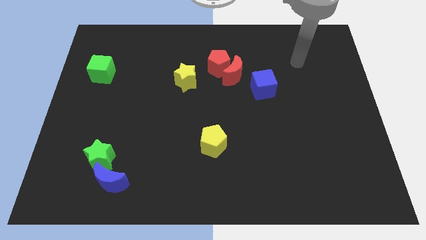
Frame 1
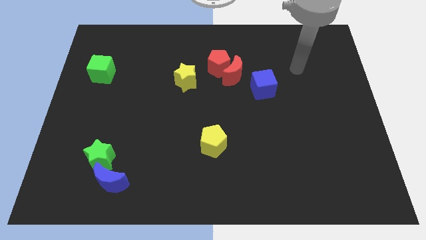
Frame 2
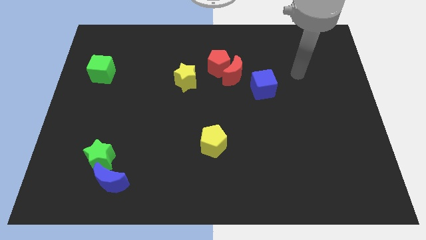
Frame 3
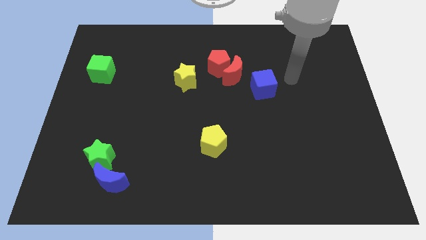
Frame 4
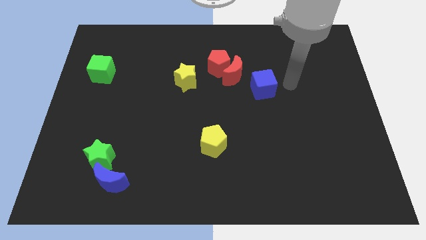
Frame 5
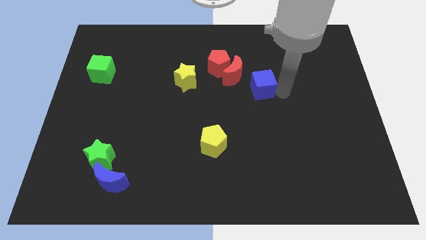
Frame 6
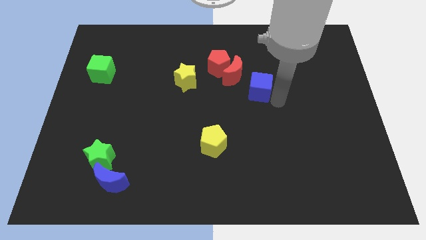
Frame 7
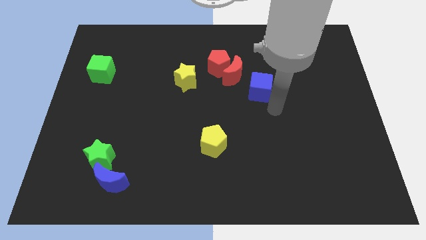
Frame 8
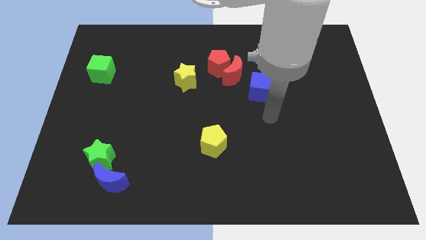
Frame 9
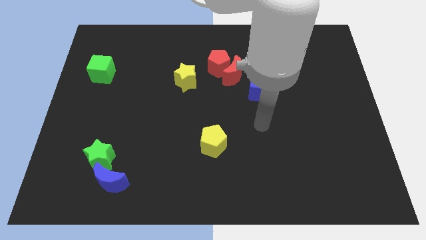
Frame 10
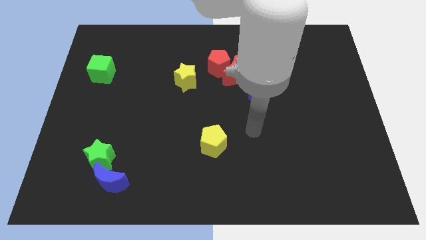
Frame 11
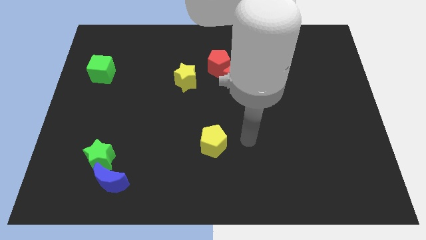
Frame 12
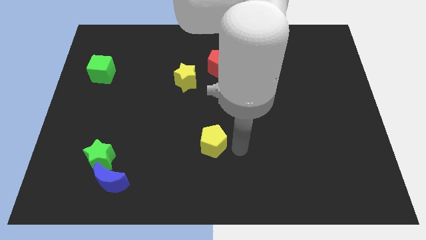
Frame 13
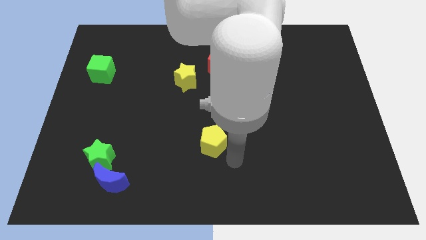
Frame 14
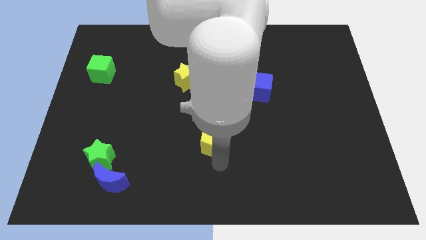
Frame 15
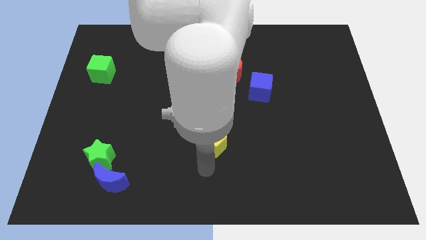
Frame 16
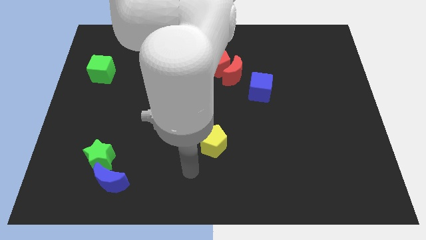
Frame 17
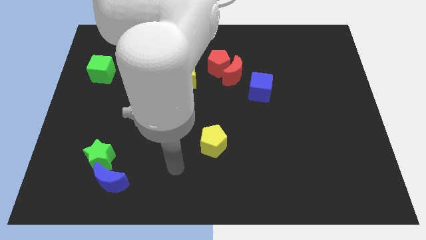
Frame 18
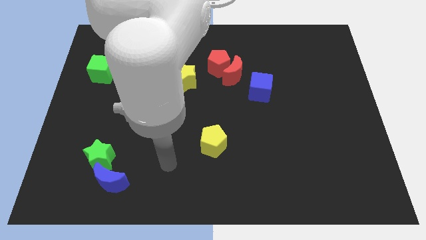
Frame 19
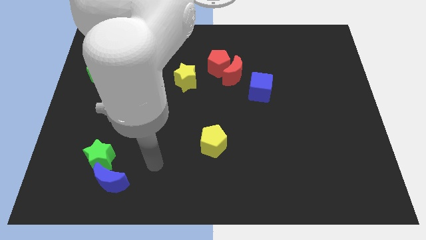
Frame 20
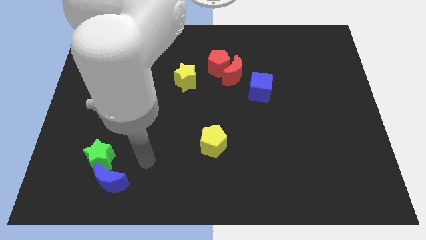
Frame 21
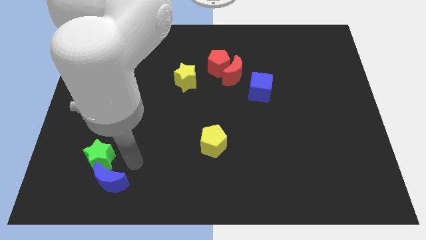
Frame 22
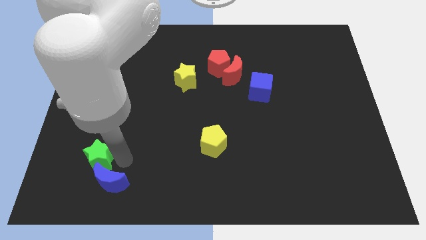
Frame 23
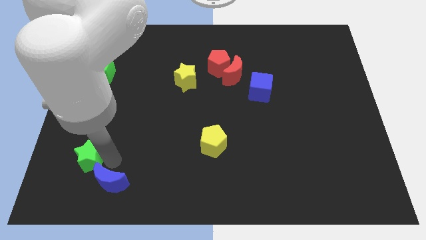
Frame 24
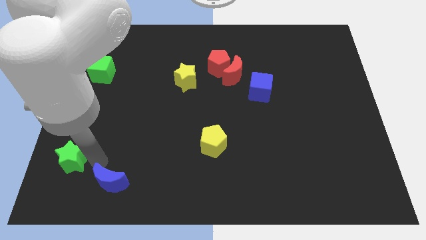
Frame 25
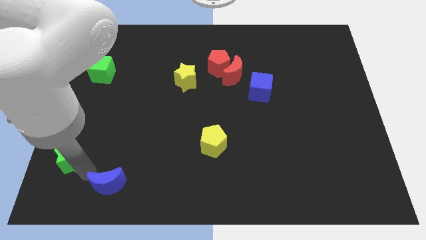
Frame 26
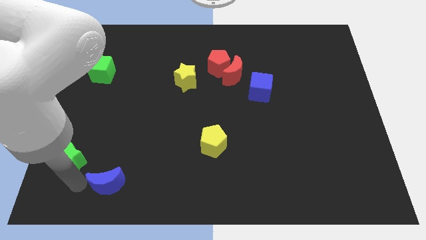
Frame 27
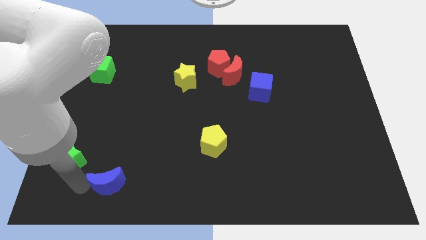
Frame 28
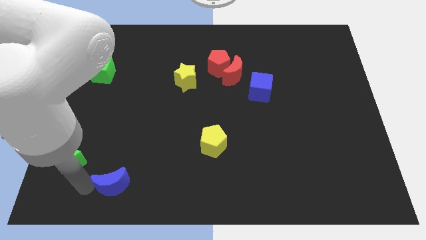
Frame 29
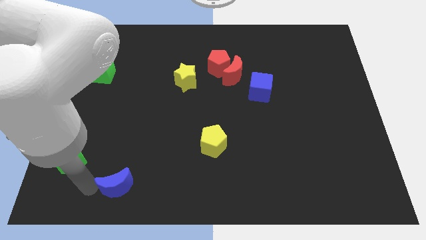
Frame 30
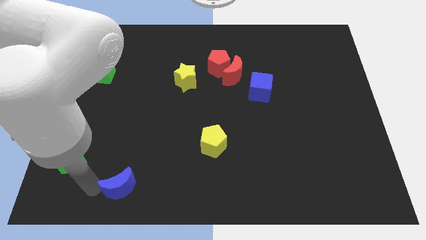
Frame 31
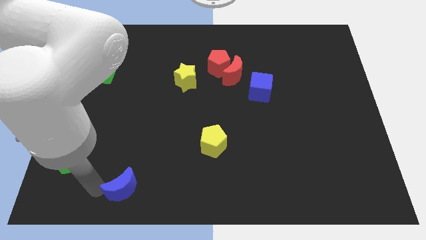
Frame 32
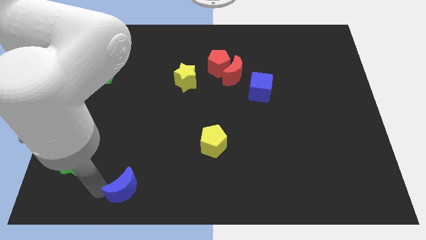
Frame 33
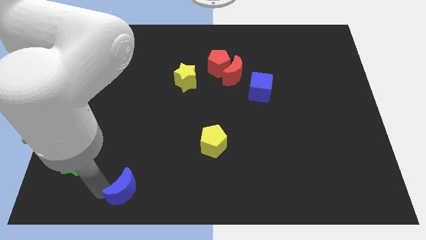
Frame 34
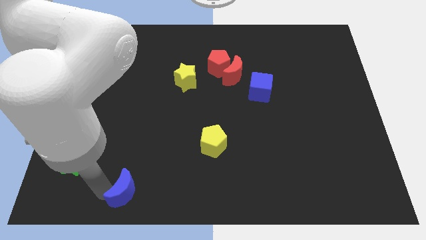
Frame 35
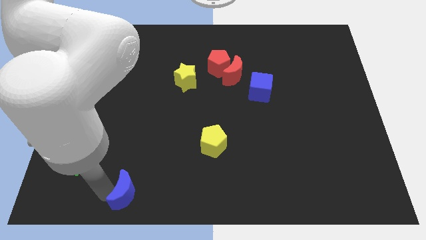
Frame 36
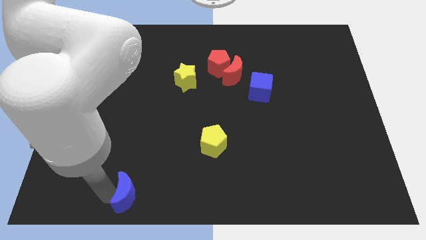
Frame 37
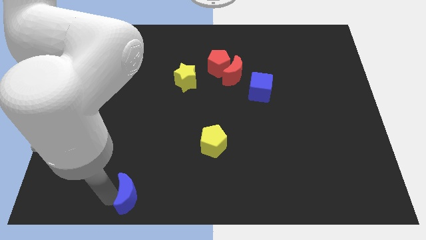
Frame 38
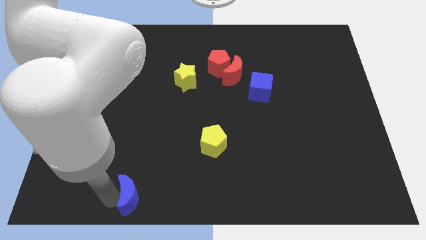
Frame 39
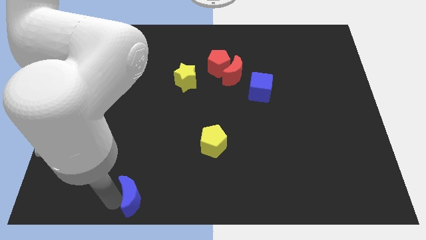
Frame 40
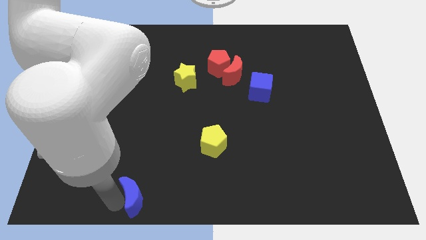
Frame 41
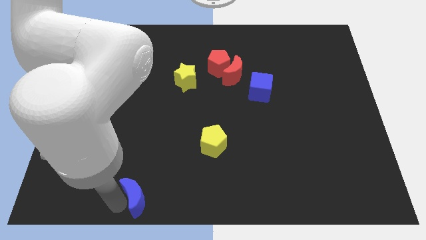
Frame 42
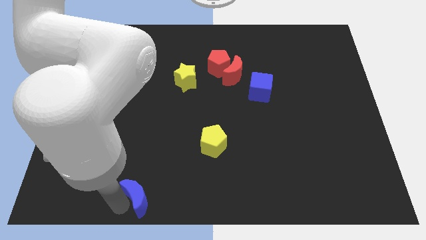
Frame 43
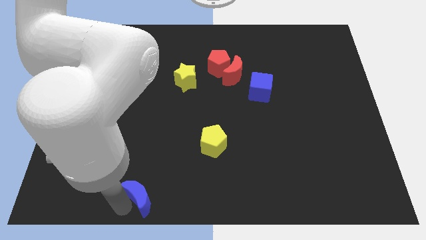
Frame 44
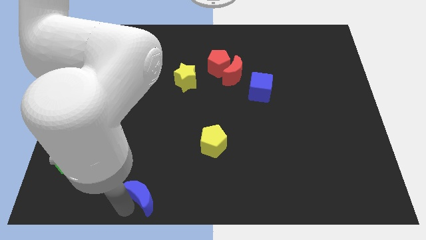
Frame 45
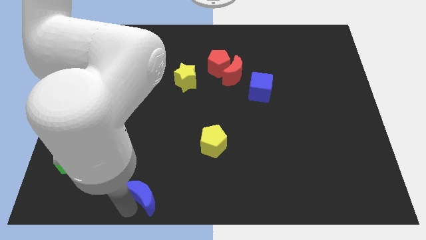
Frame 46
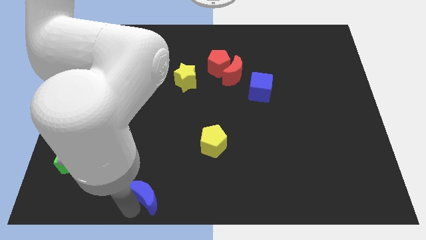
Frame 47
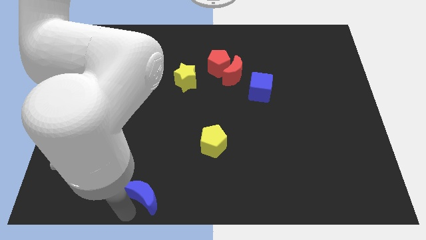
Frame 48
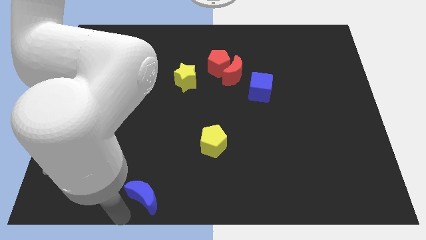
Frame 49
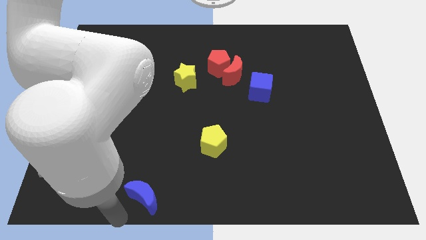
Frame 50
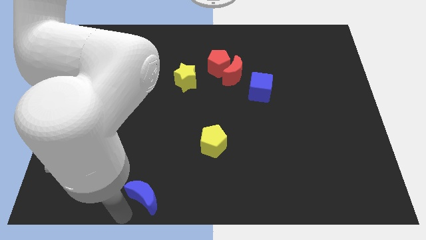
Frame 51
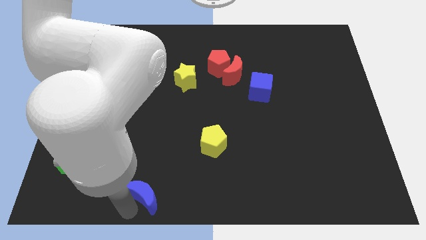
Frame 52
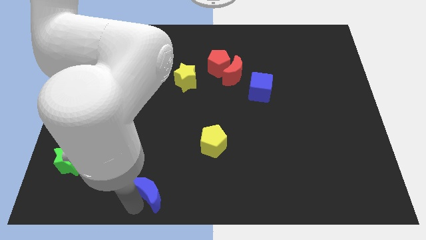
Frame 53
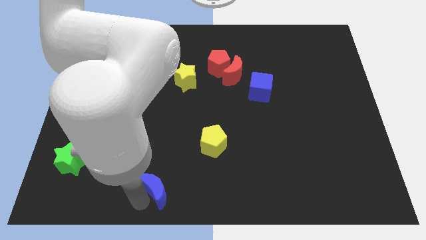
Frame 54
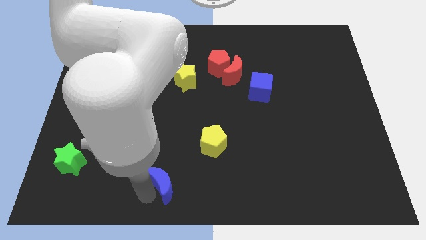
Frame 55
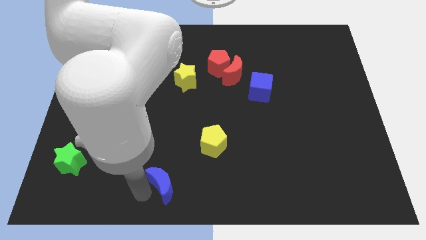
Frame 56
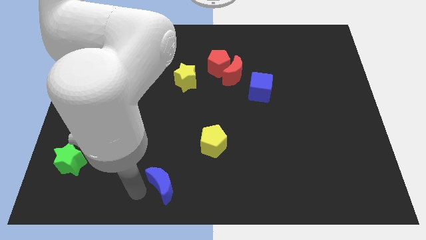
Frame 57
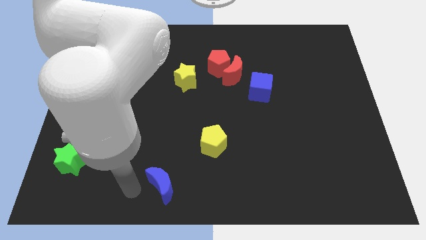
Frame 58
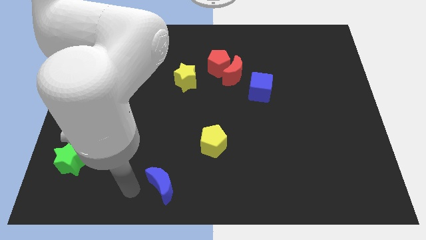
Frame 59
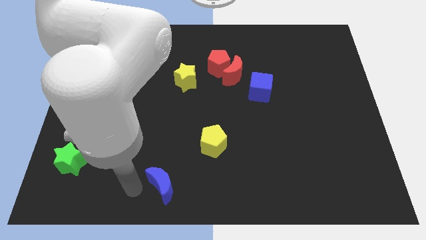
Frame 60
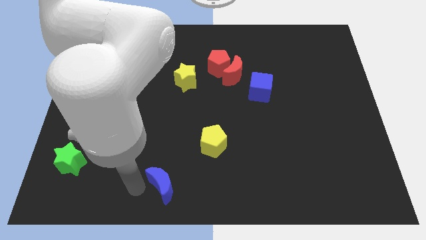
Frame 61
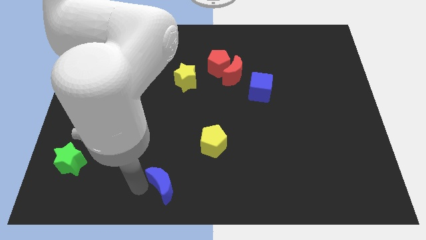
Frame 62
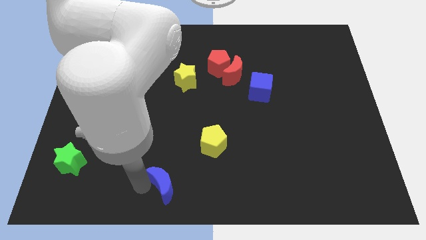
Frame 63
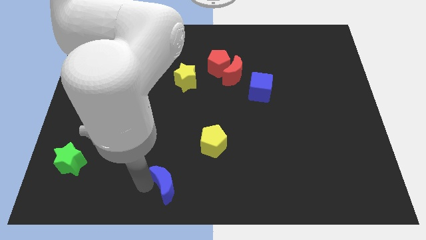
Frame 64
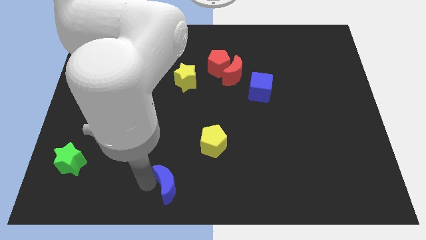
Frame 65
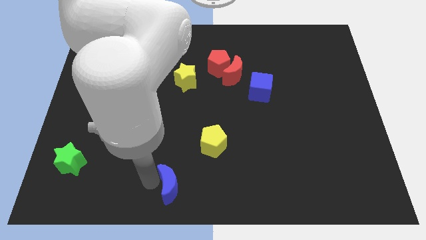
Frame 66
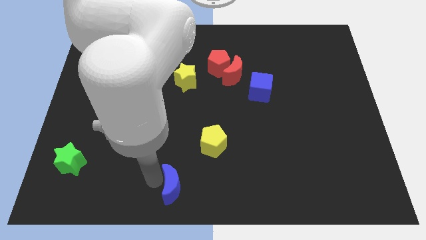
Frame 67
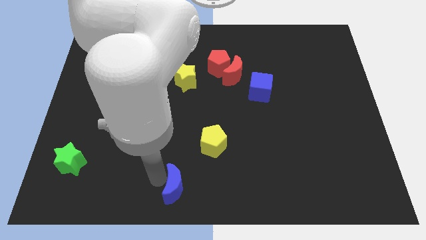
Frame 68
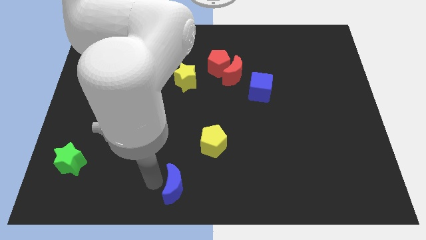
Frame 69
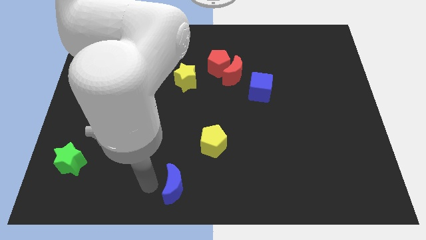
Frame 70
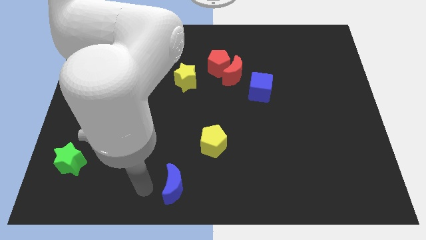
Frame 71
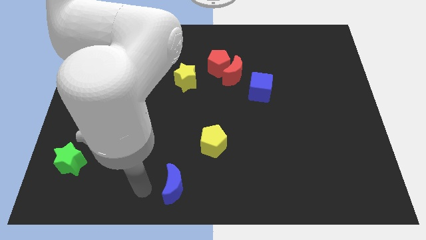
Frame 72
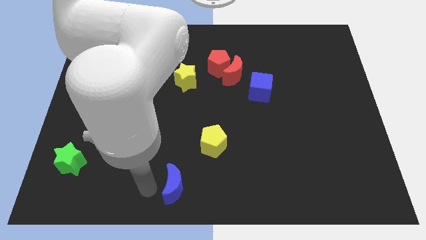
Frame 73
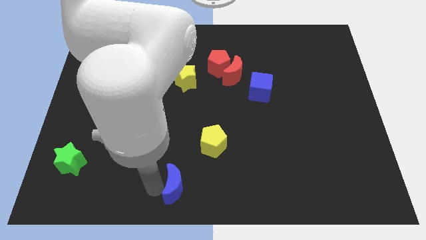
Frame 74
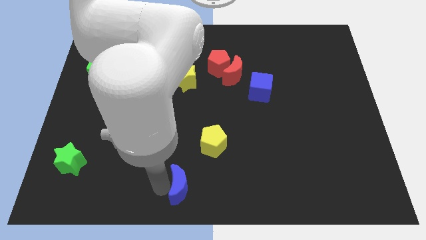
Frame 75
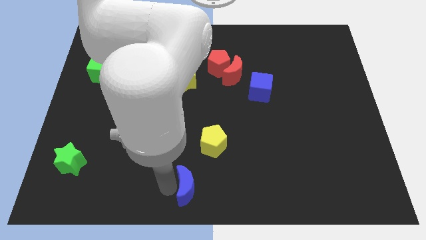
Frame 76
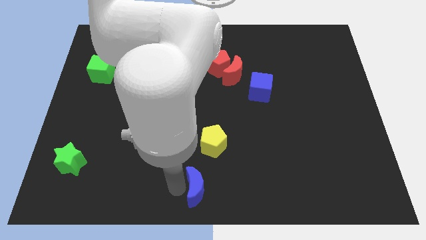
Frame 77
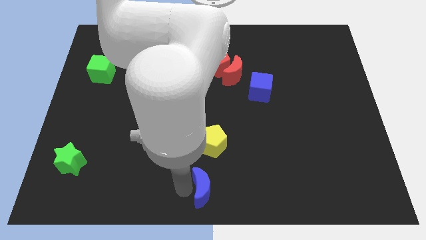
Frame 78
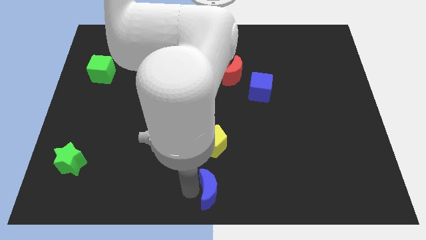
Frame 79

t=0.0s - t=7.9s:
slide the blue moon right
